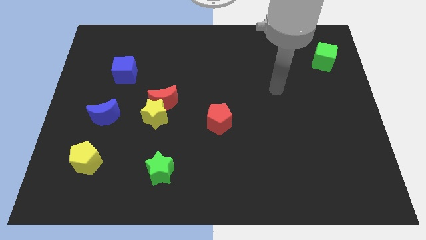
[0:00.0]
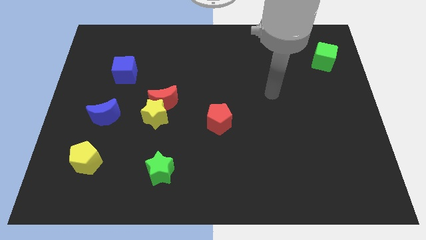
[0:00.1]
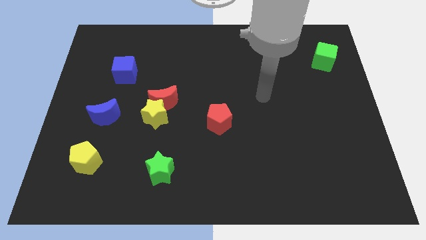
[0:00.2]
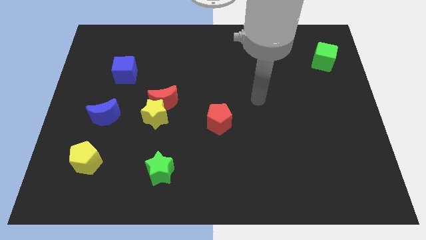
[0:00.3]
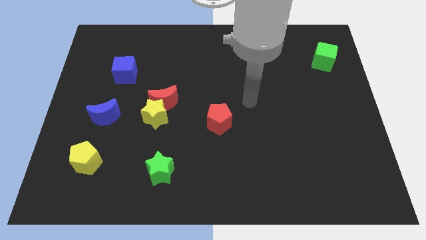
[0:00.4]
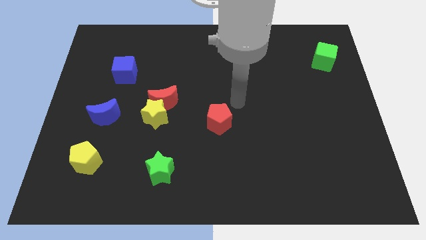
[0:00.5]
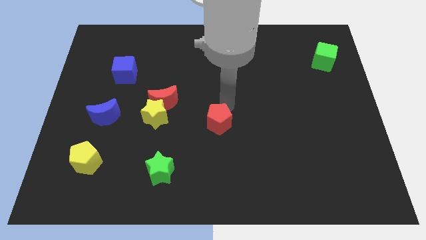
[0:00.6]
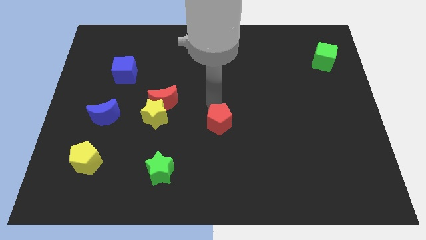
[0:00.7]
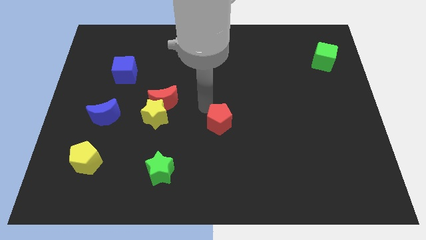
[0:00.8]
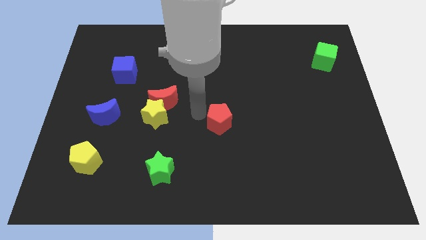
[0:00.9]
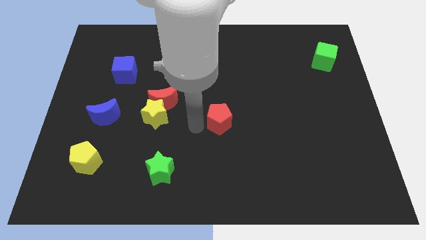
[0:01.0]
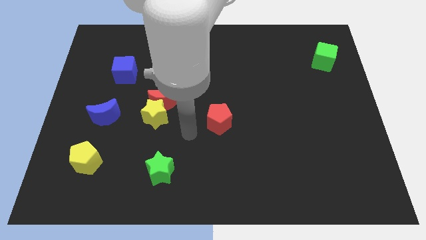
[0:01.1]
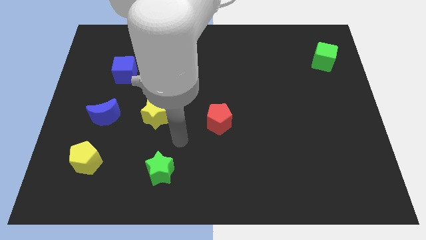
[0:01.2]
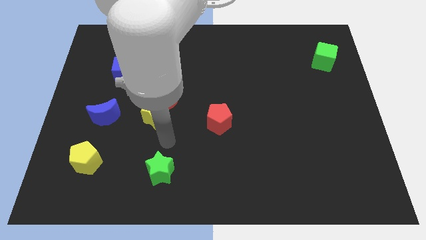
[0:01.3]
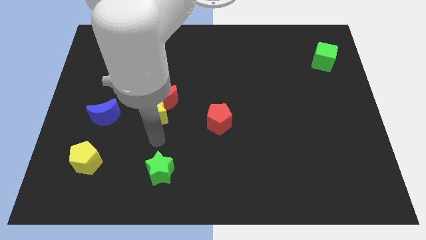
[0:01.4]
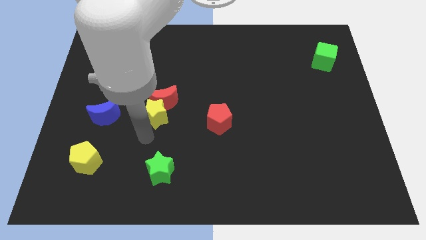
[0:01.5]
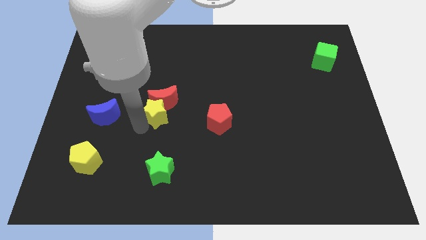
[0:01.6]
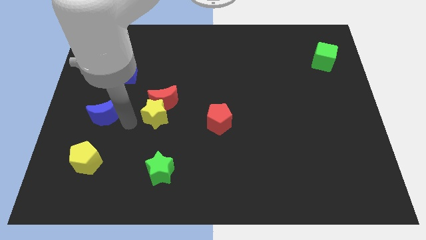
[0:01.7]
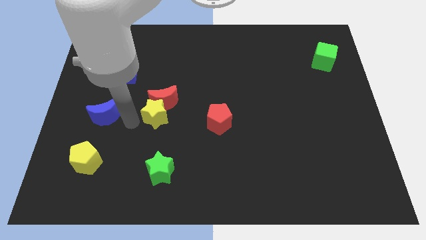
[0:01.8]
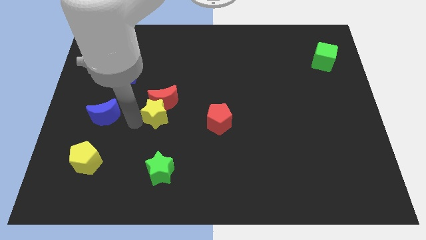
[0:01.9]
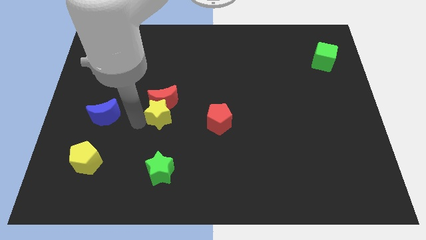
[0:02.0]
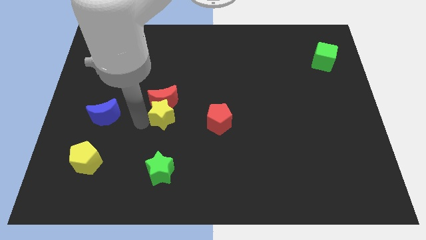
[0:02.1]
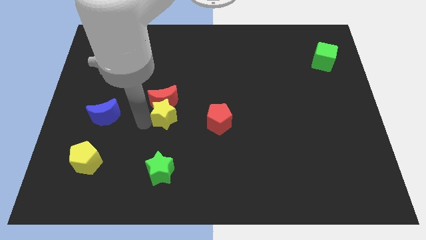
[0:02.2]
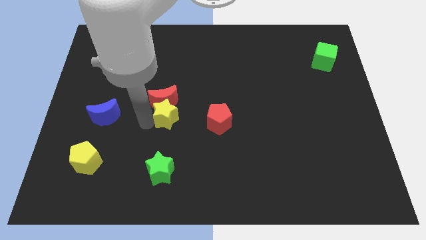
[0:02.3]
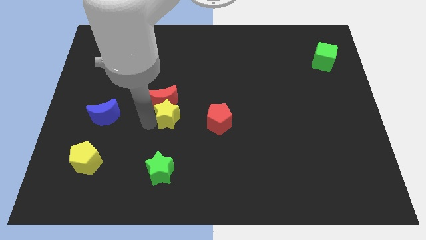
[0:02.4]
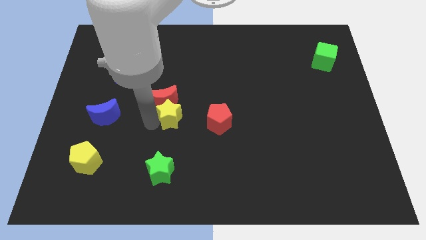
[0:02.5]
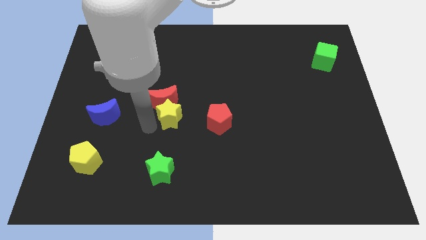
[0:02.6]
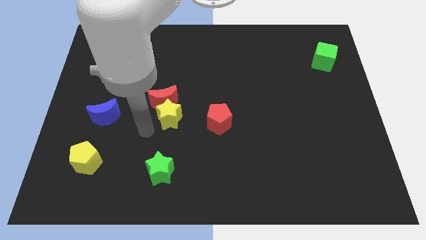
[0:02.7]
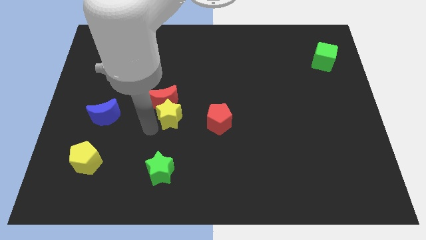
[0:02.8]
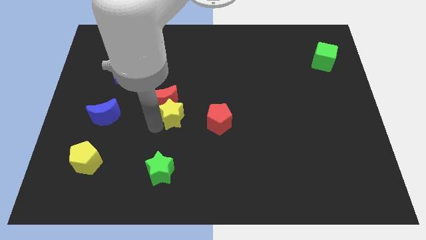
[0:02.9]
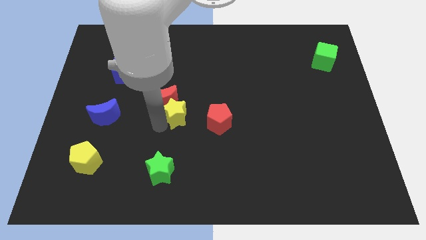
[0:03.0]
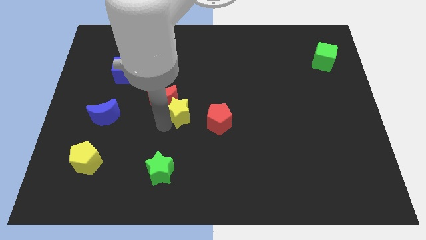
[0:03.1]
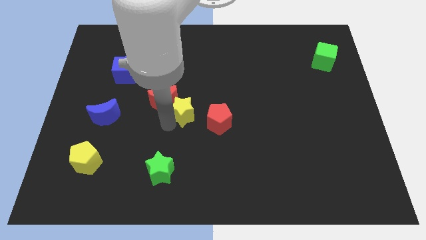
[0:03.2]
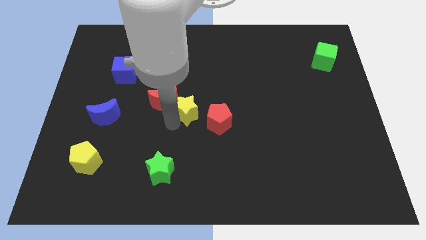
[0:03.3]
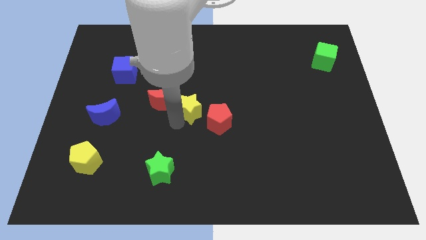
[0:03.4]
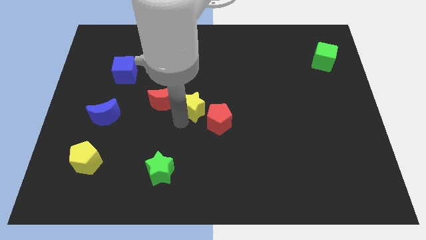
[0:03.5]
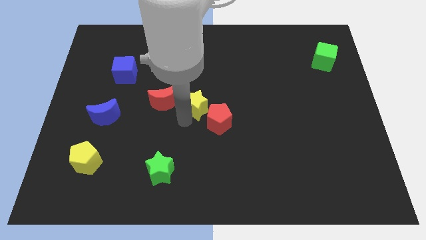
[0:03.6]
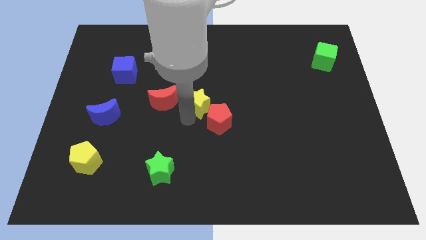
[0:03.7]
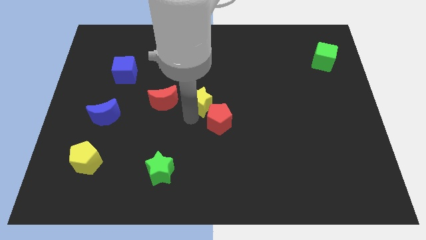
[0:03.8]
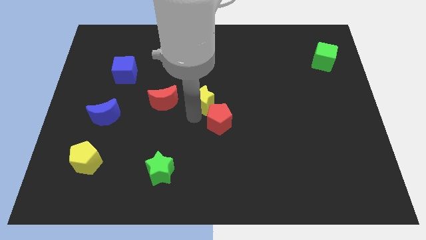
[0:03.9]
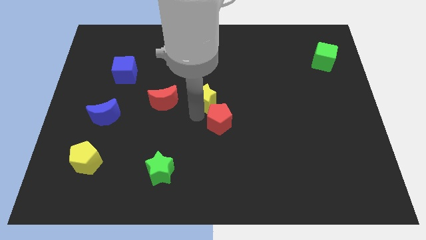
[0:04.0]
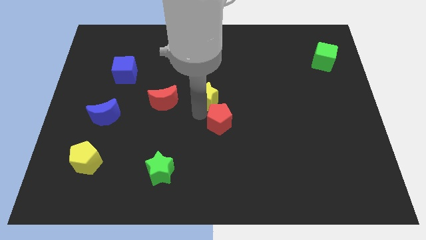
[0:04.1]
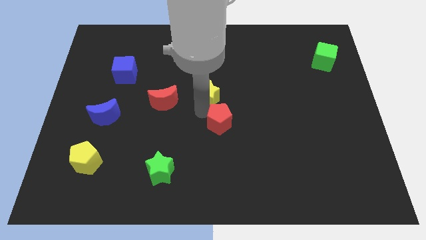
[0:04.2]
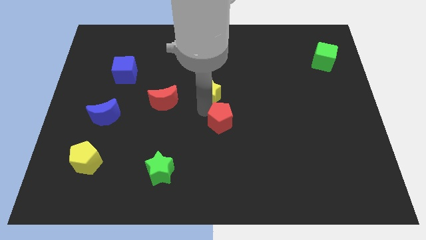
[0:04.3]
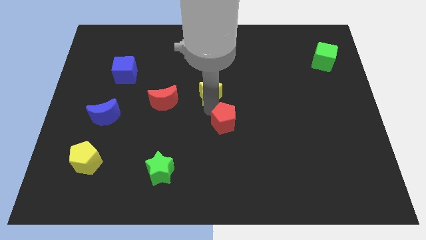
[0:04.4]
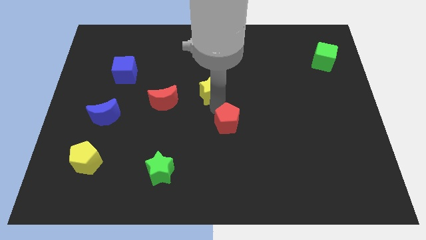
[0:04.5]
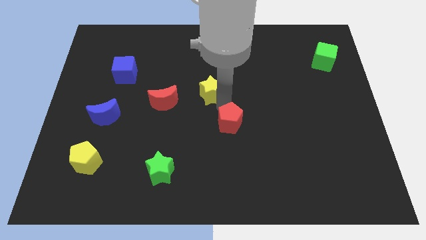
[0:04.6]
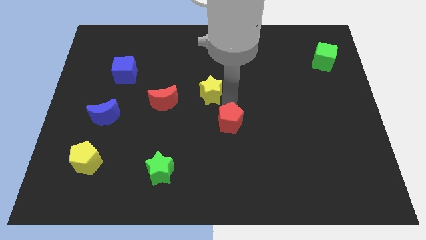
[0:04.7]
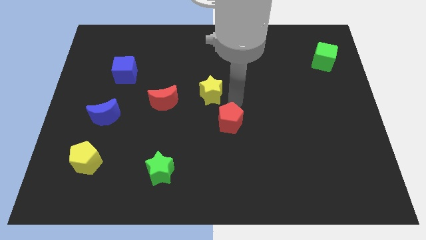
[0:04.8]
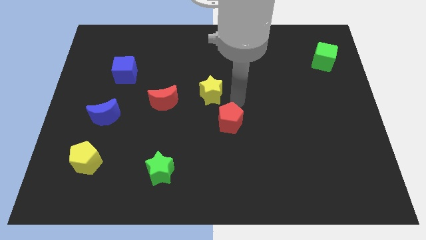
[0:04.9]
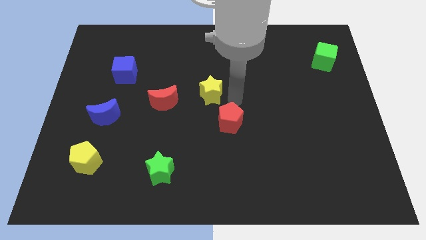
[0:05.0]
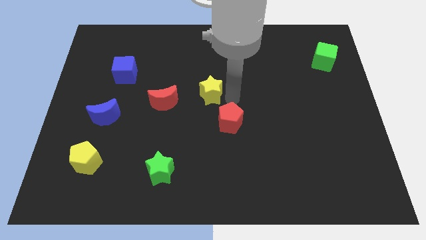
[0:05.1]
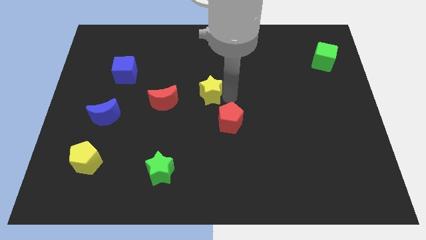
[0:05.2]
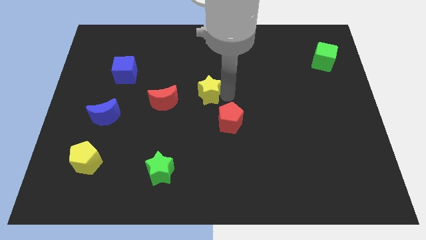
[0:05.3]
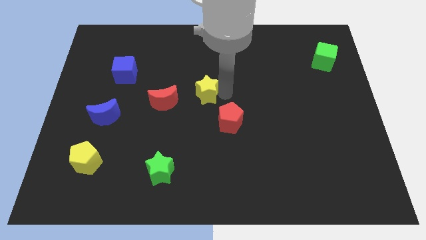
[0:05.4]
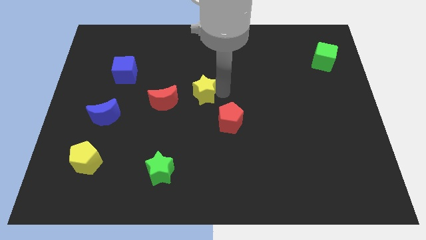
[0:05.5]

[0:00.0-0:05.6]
put the yellow star to the top right of the red moon

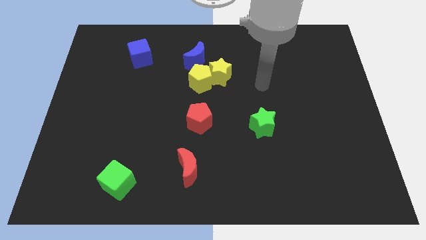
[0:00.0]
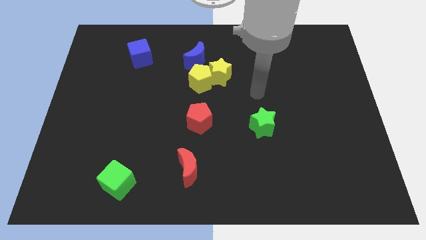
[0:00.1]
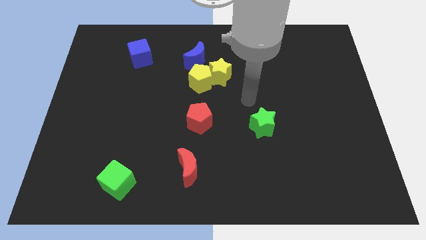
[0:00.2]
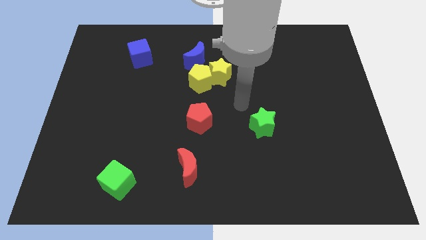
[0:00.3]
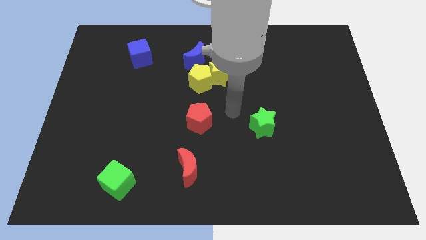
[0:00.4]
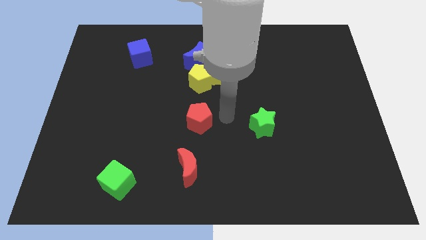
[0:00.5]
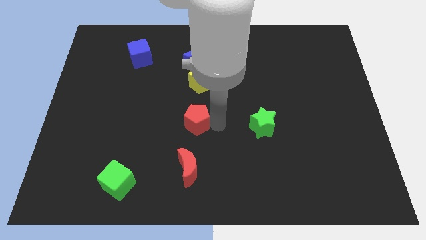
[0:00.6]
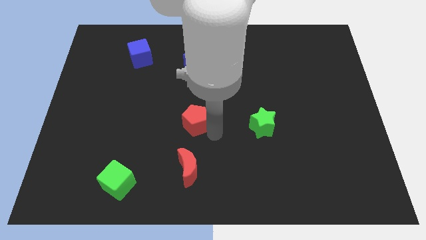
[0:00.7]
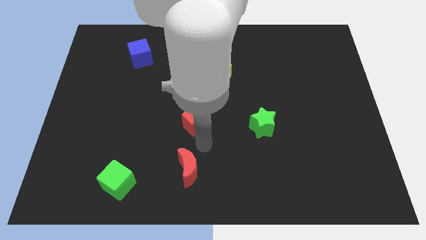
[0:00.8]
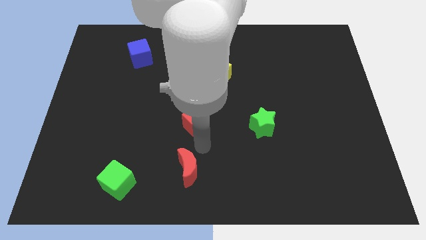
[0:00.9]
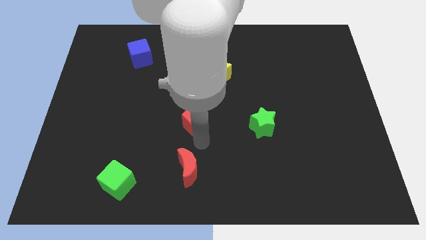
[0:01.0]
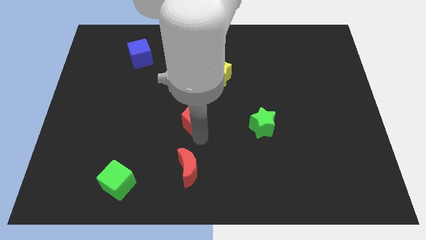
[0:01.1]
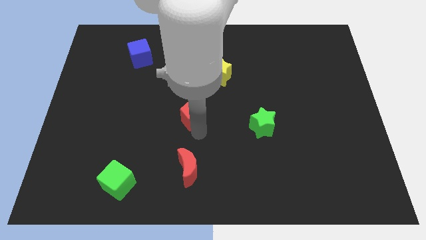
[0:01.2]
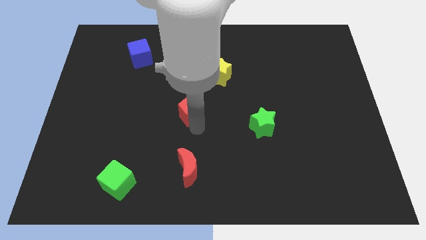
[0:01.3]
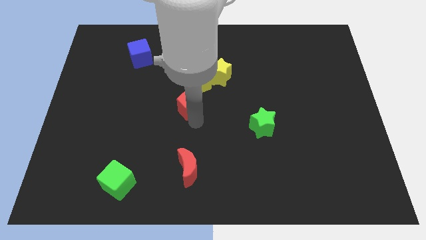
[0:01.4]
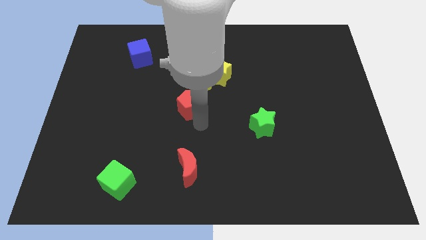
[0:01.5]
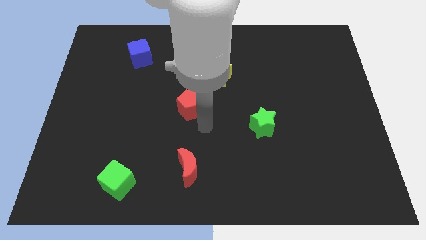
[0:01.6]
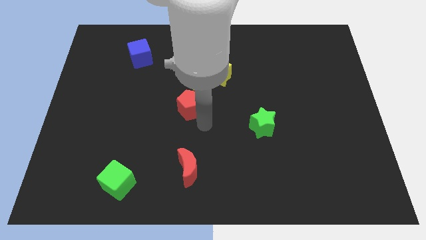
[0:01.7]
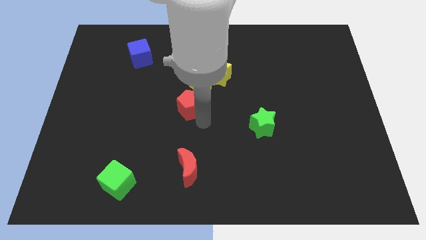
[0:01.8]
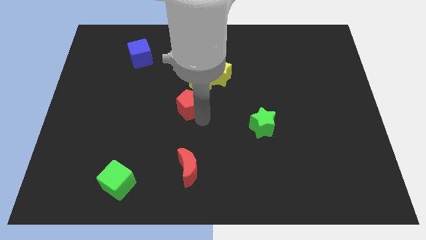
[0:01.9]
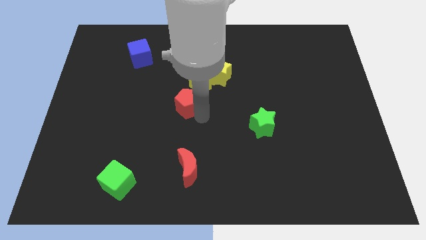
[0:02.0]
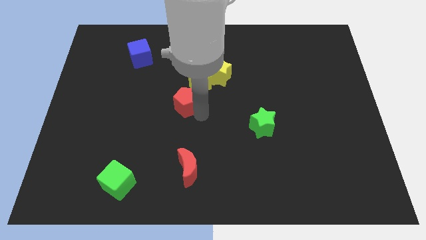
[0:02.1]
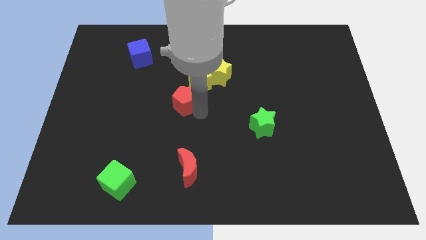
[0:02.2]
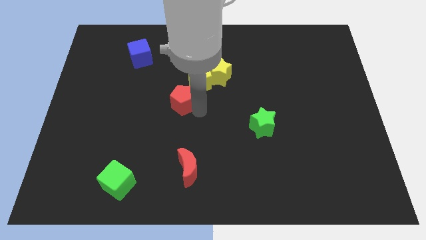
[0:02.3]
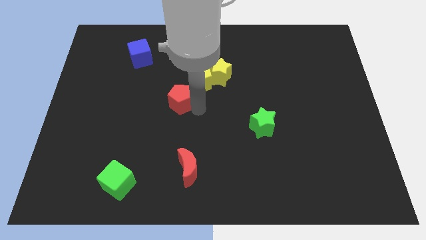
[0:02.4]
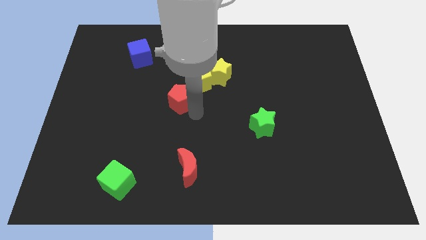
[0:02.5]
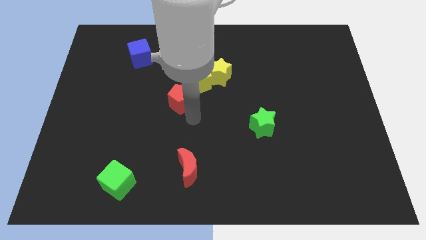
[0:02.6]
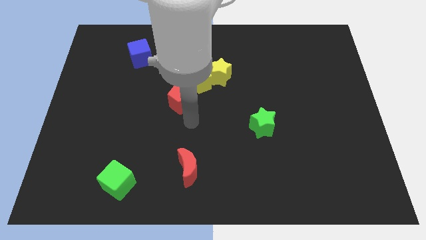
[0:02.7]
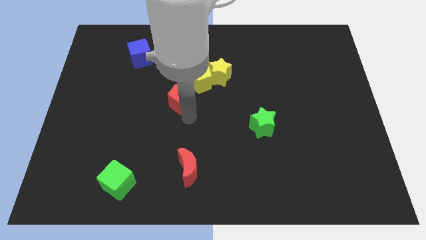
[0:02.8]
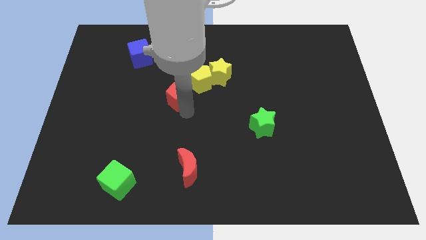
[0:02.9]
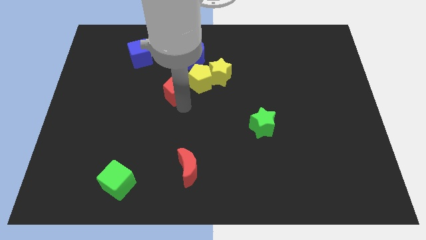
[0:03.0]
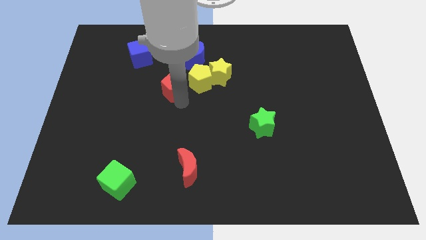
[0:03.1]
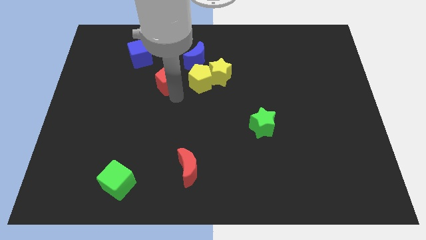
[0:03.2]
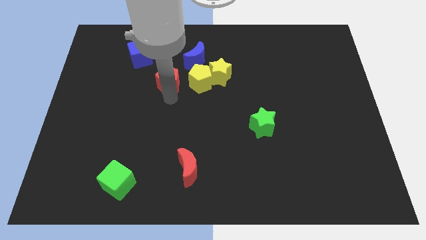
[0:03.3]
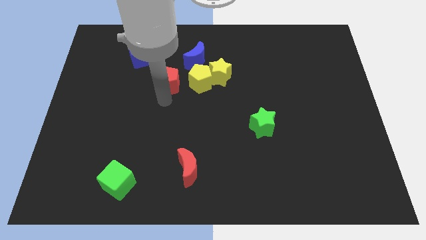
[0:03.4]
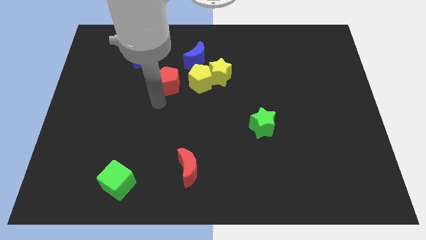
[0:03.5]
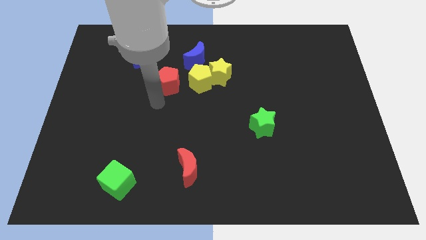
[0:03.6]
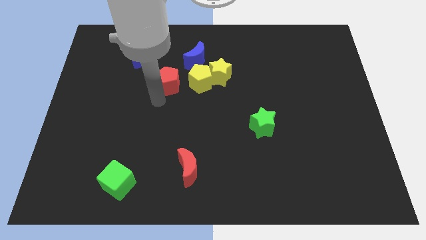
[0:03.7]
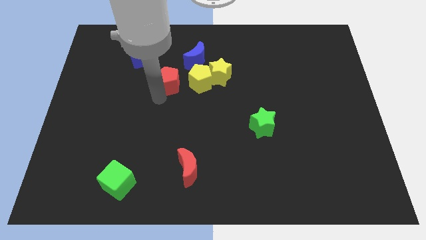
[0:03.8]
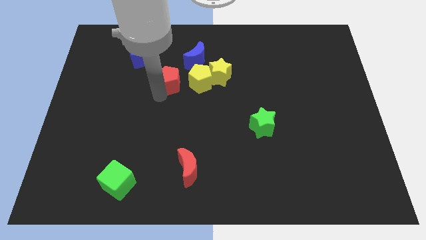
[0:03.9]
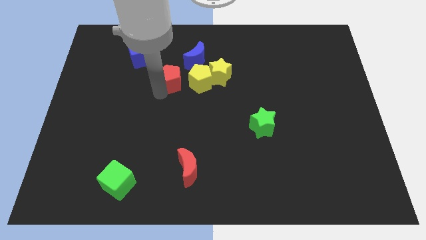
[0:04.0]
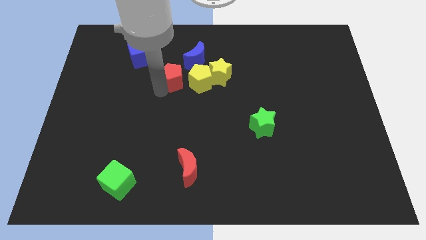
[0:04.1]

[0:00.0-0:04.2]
put the red pentagon to the top left side of the yellow pentagon
